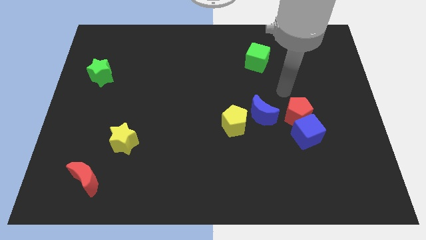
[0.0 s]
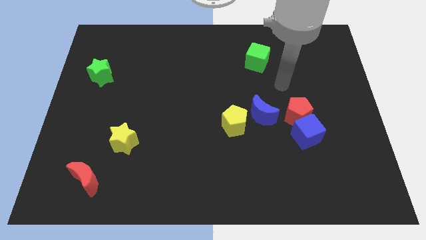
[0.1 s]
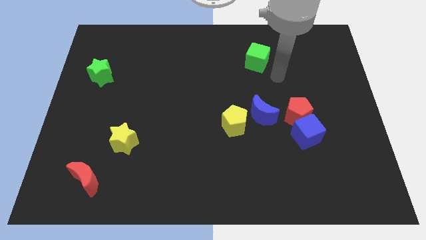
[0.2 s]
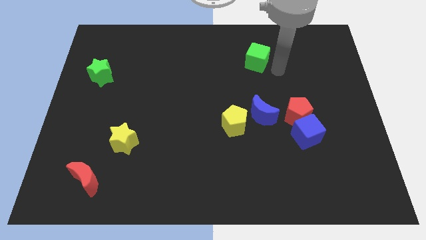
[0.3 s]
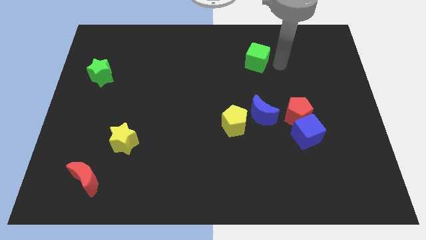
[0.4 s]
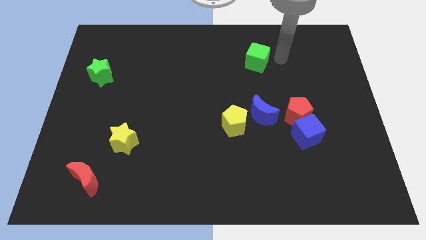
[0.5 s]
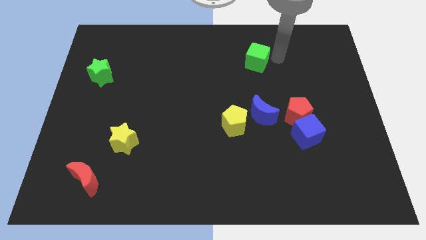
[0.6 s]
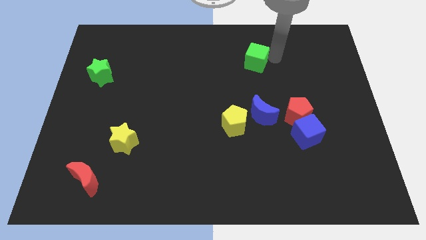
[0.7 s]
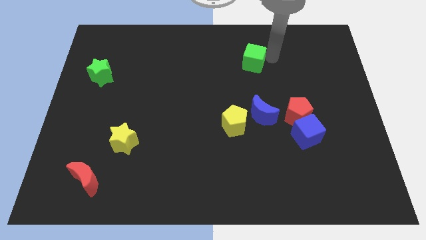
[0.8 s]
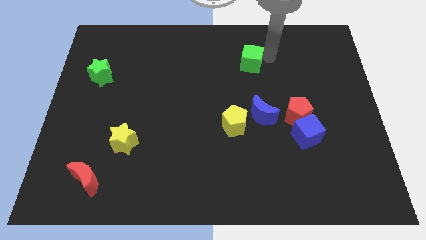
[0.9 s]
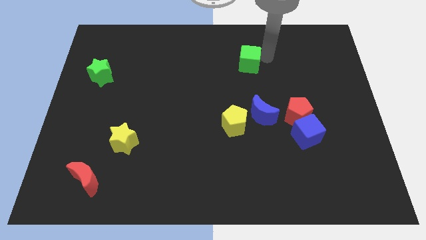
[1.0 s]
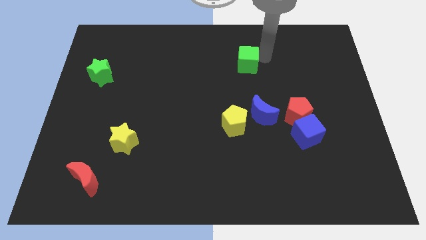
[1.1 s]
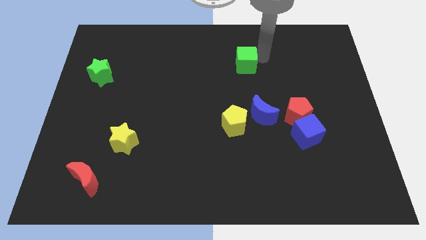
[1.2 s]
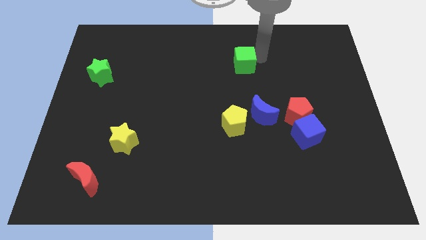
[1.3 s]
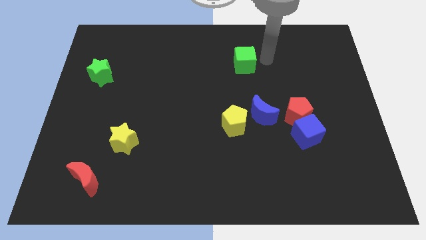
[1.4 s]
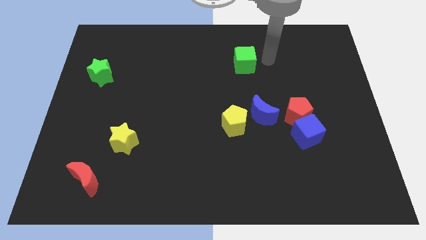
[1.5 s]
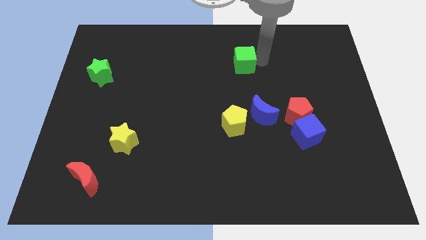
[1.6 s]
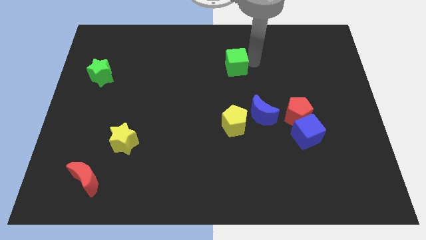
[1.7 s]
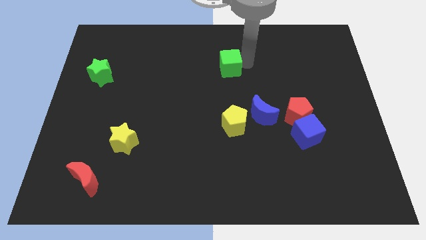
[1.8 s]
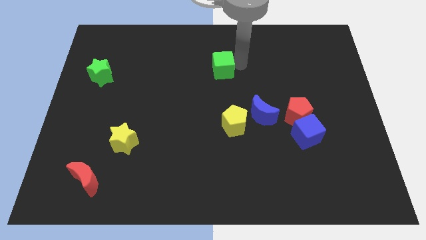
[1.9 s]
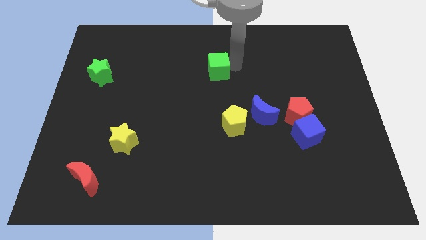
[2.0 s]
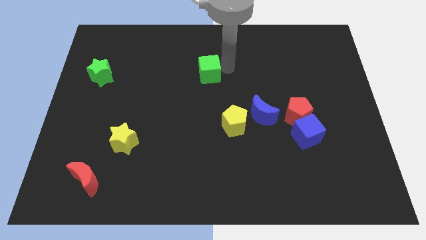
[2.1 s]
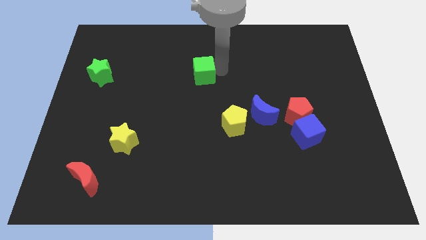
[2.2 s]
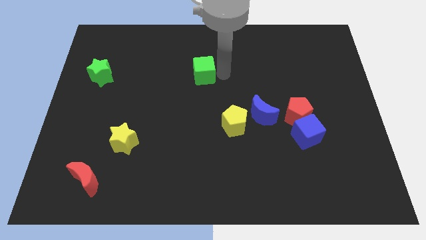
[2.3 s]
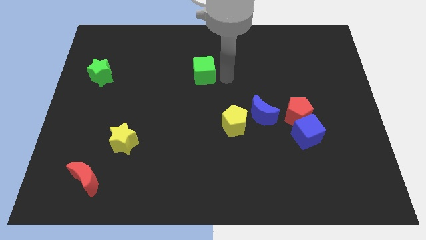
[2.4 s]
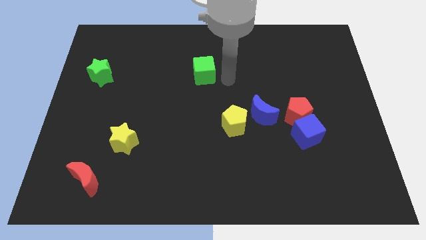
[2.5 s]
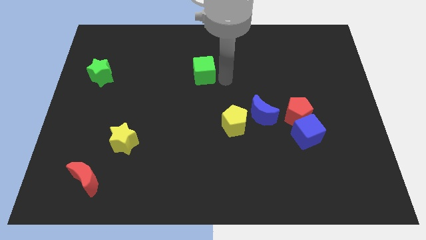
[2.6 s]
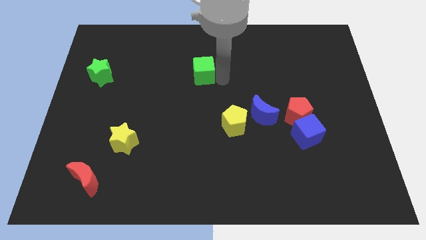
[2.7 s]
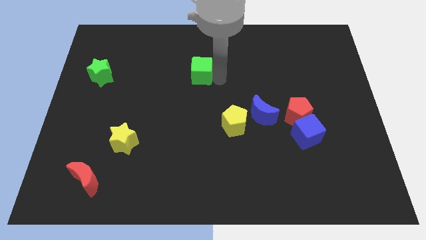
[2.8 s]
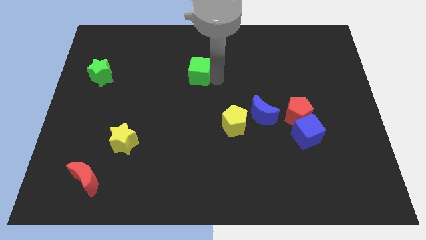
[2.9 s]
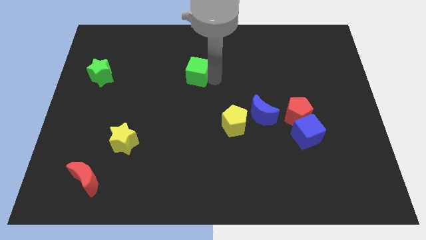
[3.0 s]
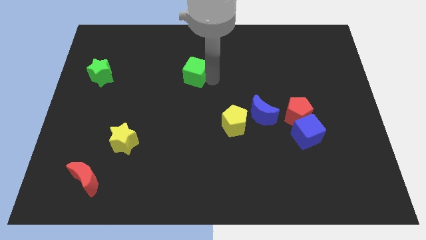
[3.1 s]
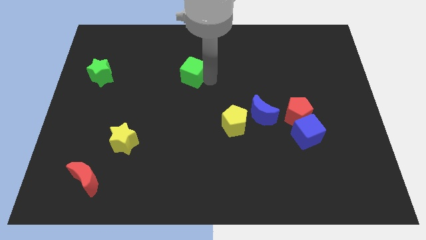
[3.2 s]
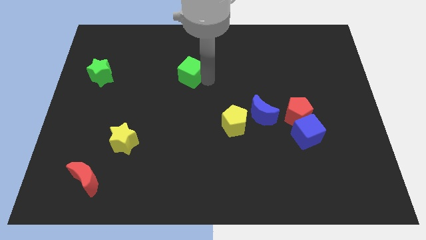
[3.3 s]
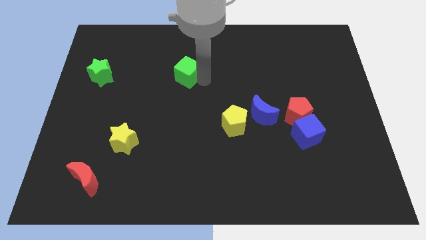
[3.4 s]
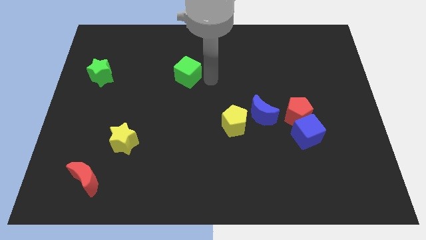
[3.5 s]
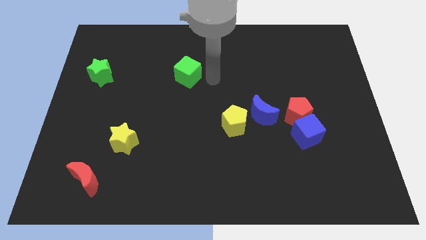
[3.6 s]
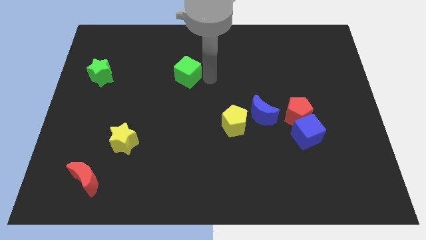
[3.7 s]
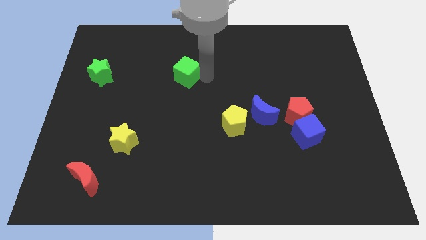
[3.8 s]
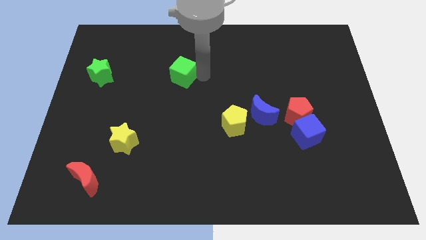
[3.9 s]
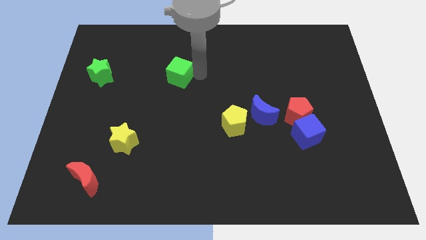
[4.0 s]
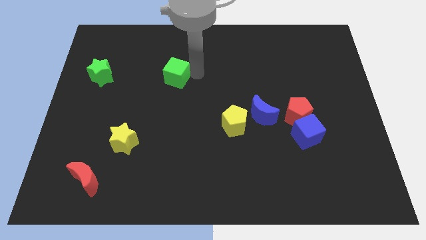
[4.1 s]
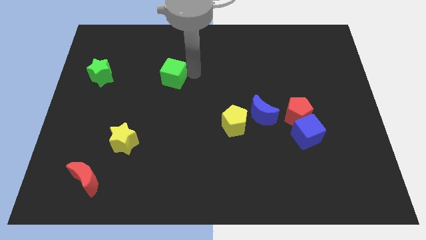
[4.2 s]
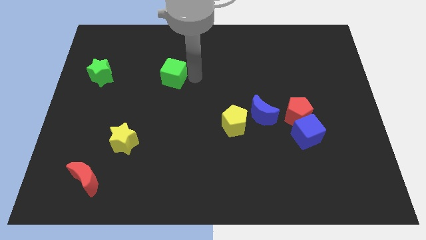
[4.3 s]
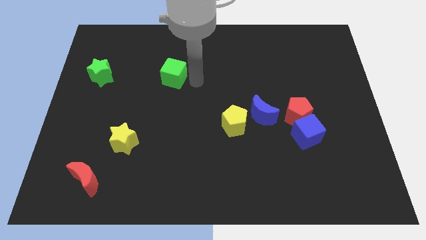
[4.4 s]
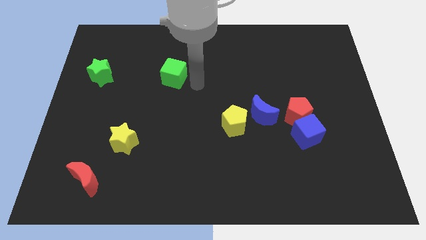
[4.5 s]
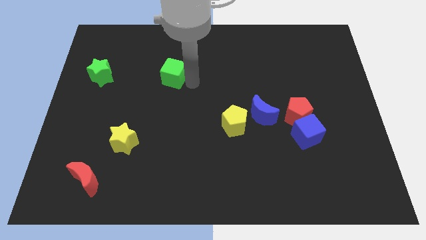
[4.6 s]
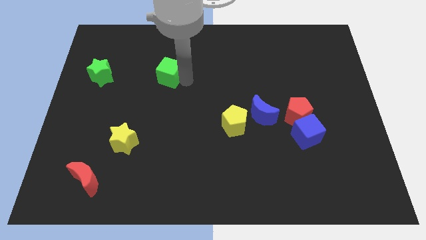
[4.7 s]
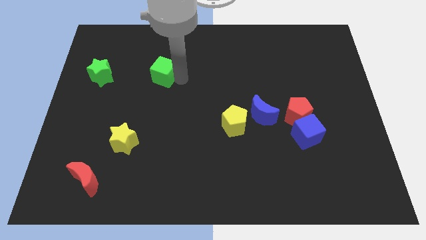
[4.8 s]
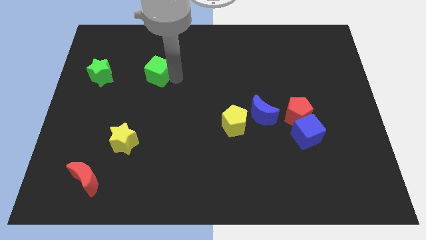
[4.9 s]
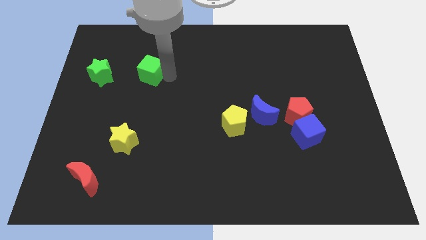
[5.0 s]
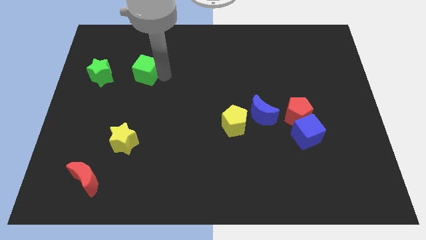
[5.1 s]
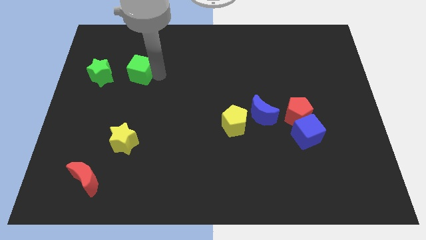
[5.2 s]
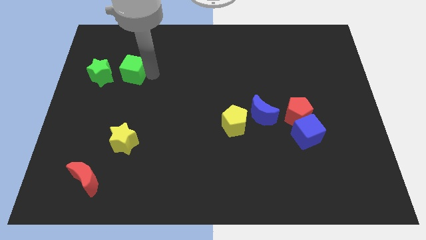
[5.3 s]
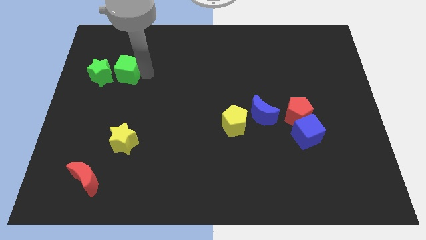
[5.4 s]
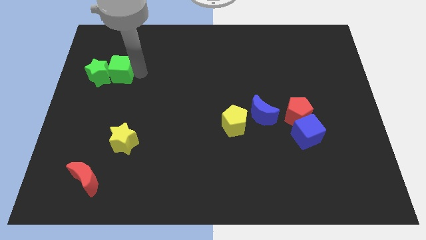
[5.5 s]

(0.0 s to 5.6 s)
move the green cube next to the green star

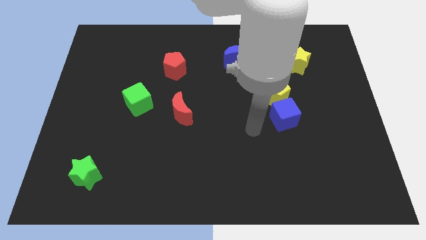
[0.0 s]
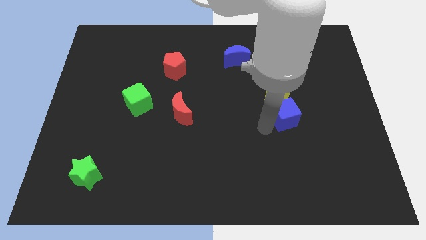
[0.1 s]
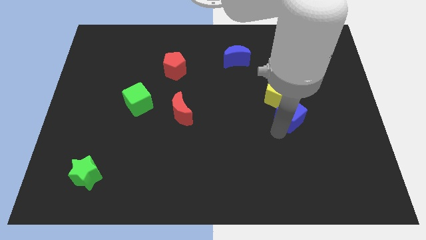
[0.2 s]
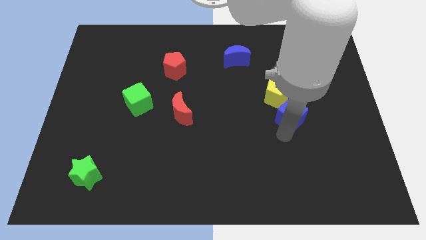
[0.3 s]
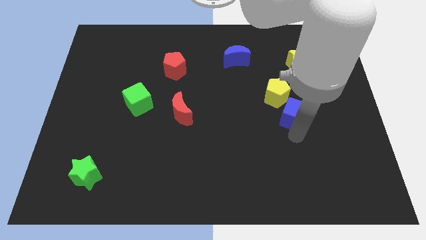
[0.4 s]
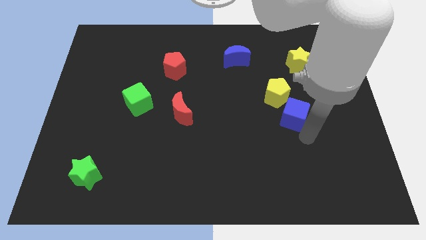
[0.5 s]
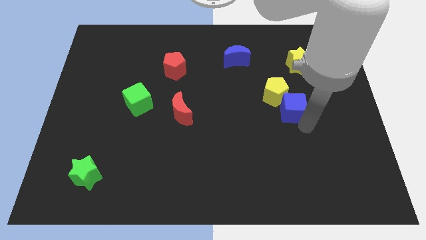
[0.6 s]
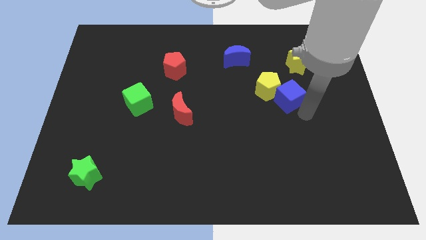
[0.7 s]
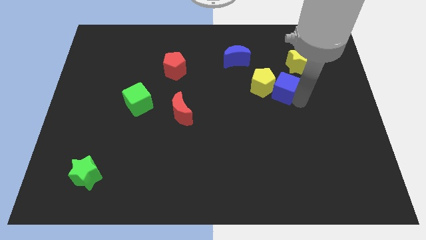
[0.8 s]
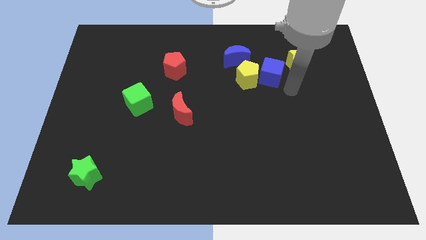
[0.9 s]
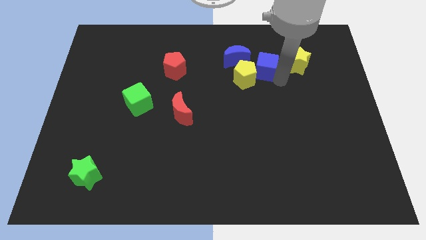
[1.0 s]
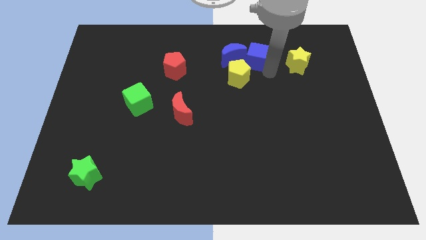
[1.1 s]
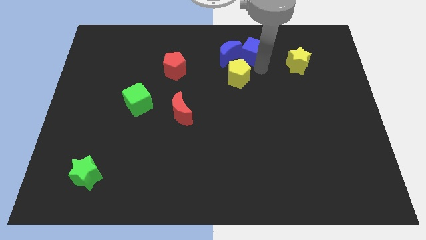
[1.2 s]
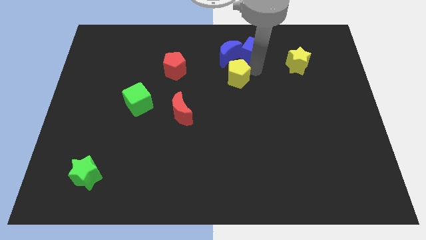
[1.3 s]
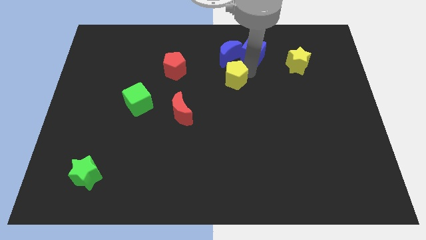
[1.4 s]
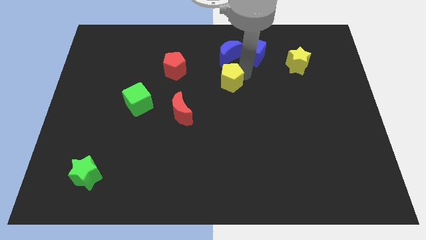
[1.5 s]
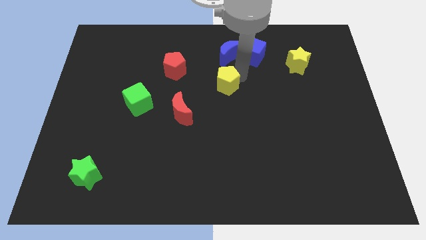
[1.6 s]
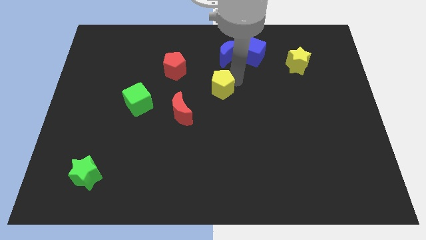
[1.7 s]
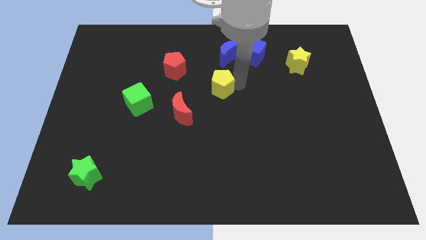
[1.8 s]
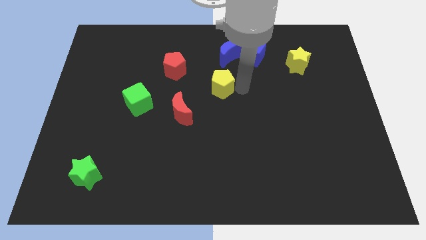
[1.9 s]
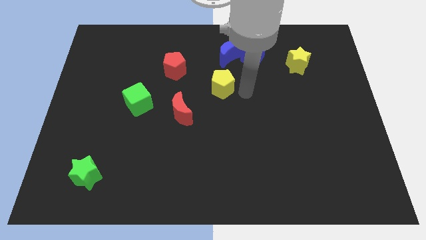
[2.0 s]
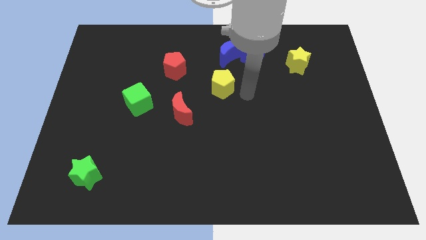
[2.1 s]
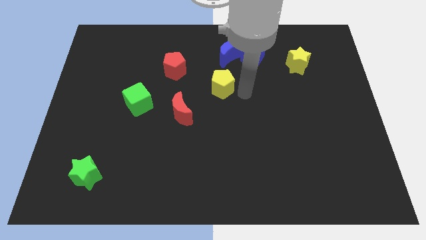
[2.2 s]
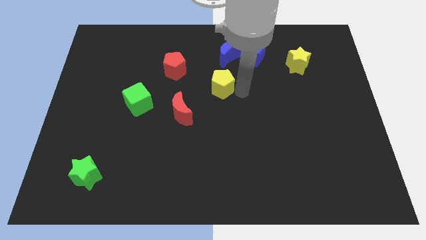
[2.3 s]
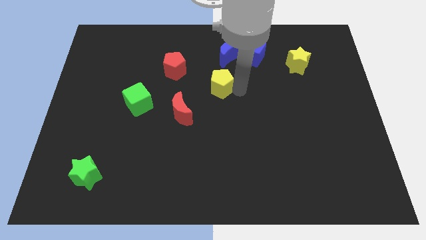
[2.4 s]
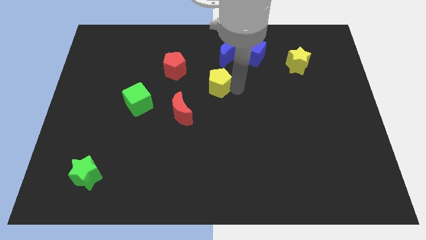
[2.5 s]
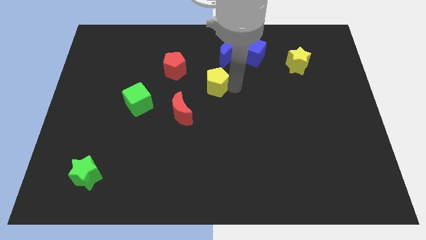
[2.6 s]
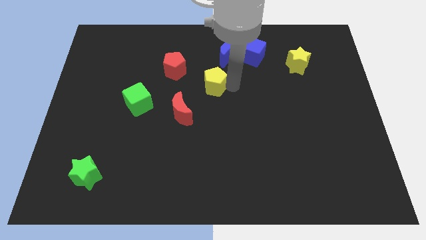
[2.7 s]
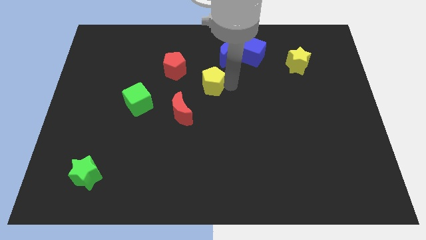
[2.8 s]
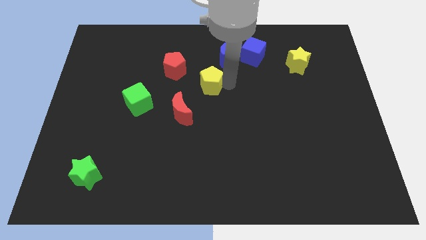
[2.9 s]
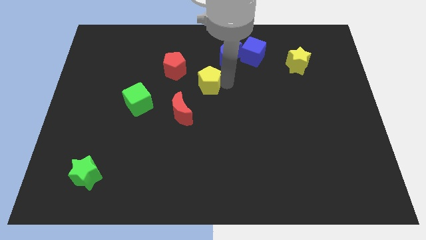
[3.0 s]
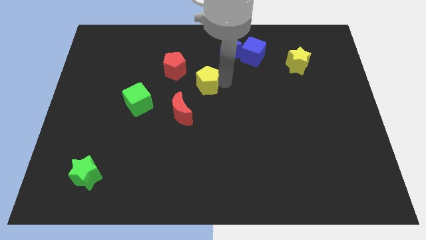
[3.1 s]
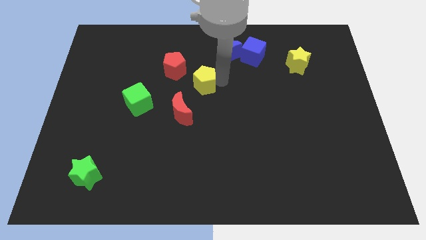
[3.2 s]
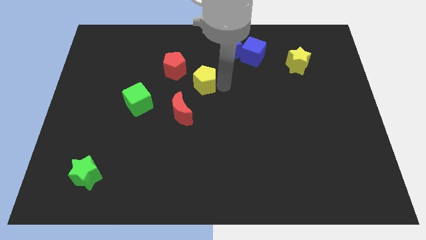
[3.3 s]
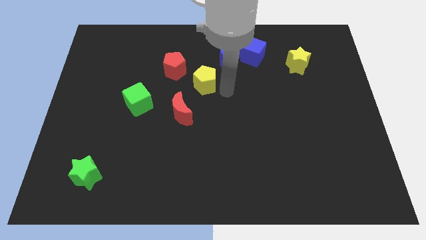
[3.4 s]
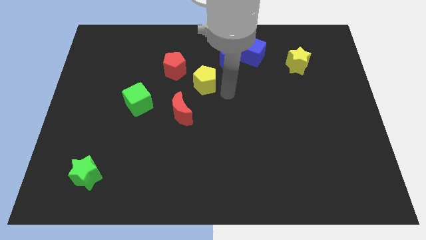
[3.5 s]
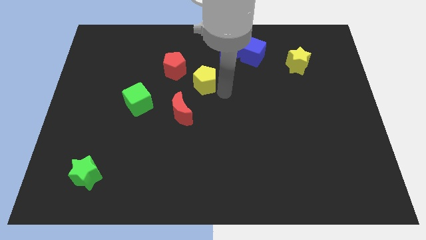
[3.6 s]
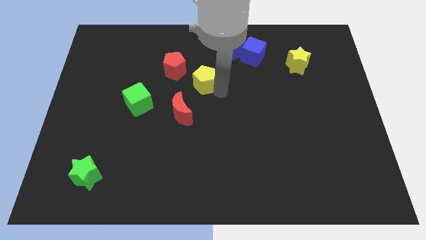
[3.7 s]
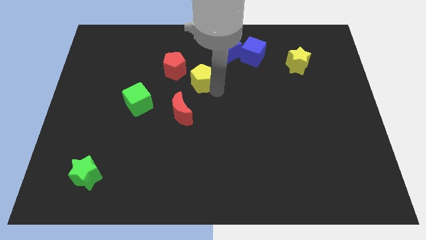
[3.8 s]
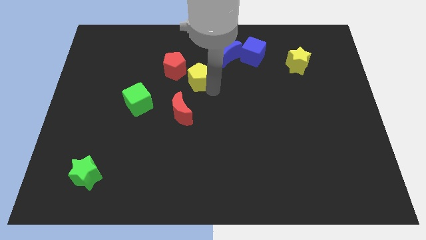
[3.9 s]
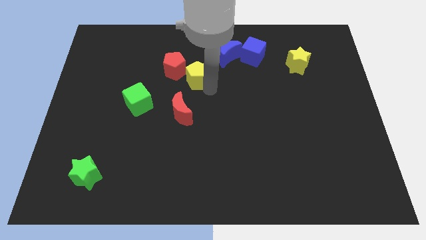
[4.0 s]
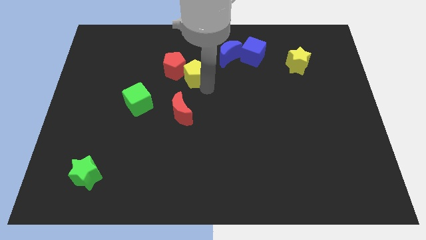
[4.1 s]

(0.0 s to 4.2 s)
push the yellow pentagon towards the red pentagon
